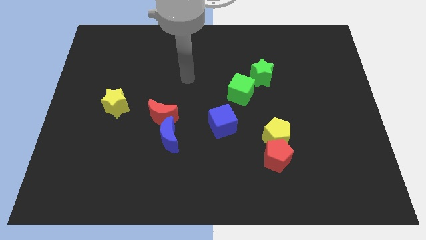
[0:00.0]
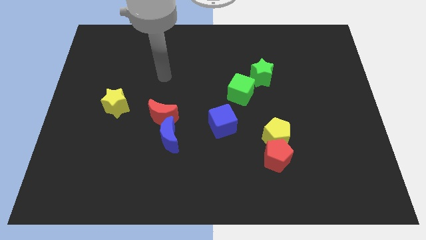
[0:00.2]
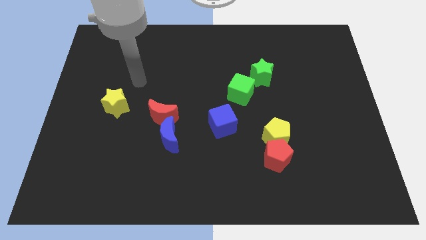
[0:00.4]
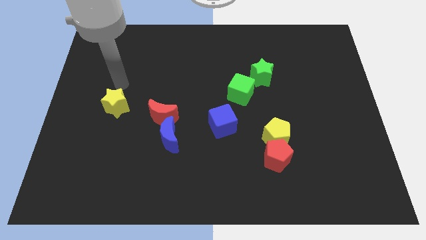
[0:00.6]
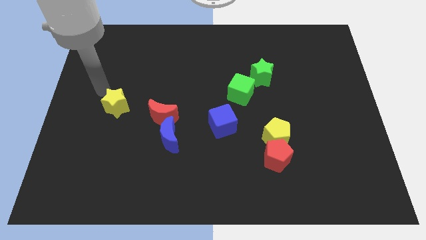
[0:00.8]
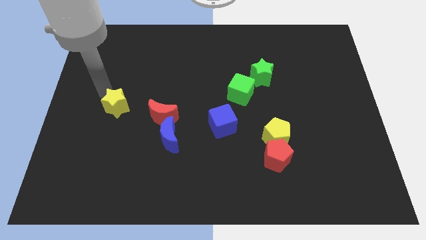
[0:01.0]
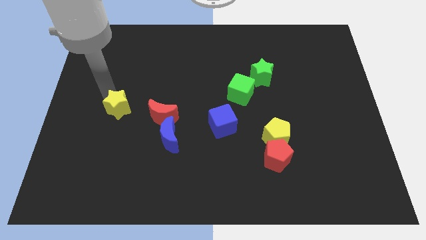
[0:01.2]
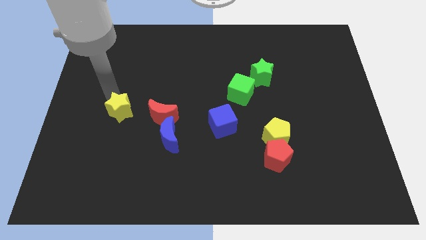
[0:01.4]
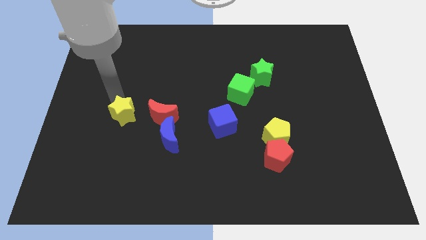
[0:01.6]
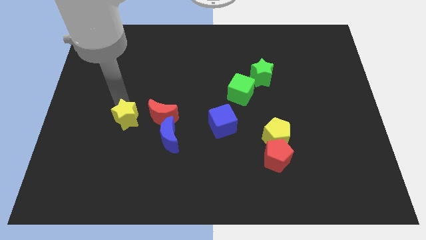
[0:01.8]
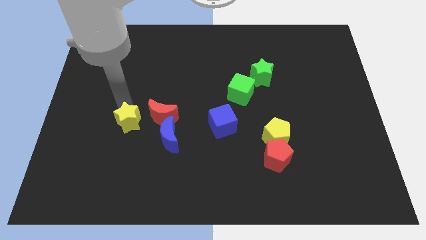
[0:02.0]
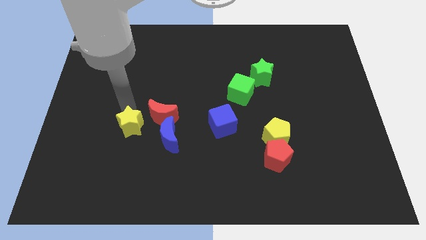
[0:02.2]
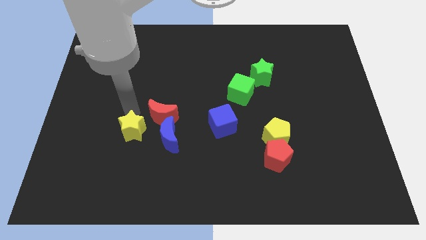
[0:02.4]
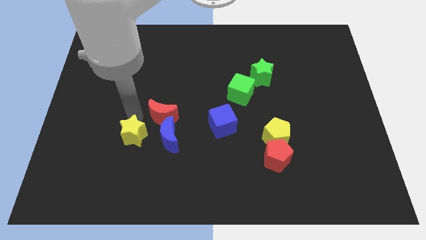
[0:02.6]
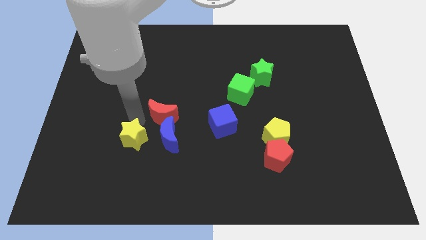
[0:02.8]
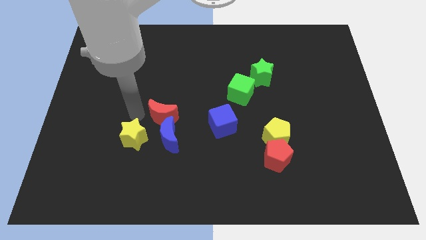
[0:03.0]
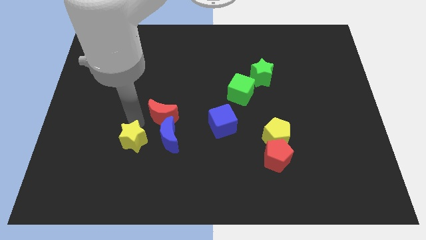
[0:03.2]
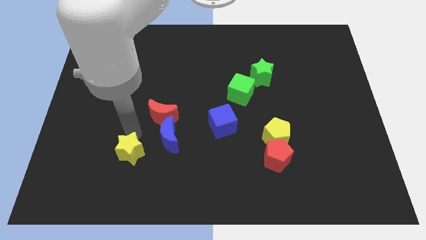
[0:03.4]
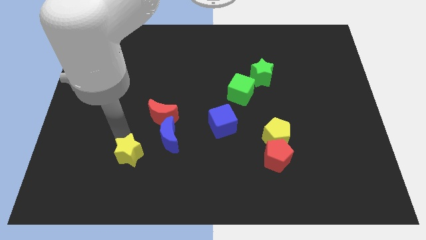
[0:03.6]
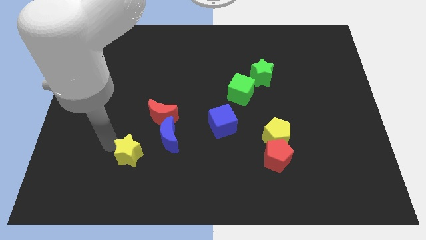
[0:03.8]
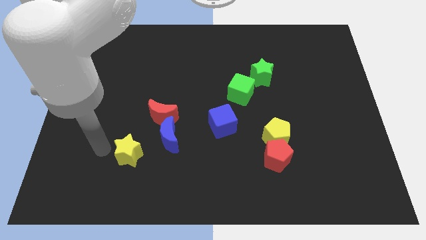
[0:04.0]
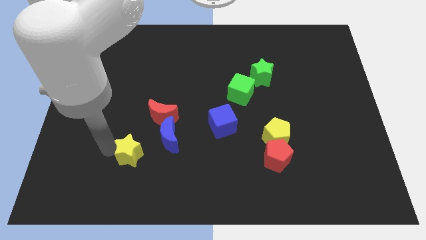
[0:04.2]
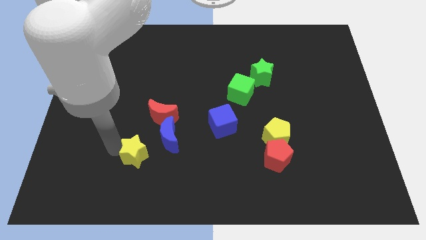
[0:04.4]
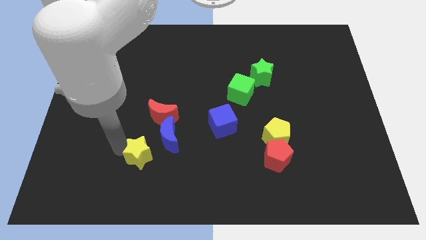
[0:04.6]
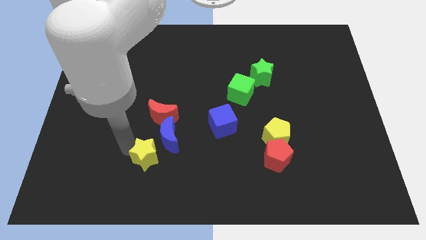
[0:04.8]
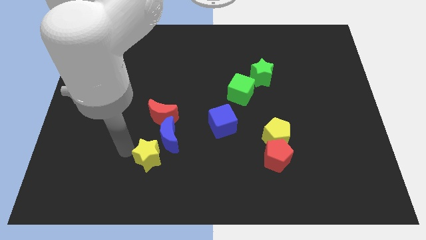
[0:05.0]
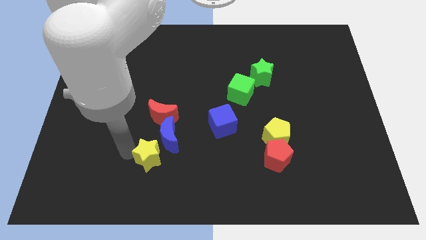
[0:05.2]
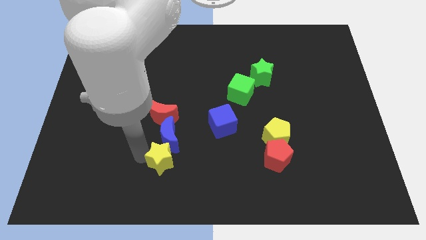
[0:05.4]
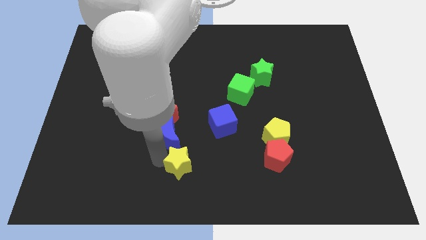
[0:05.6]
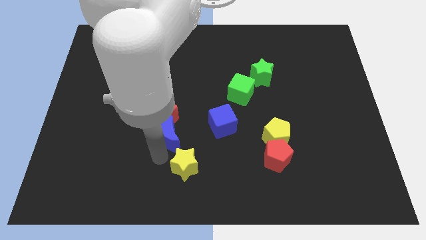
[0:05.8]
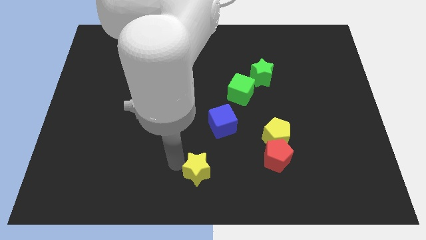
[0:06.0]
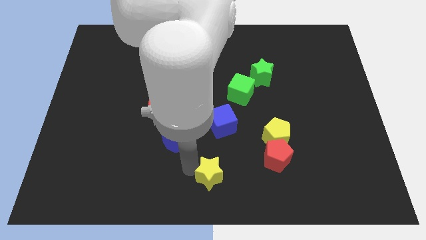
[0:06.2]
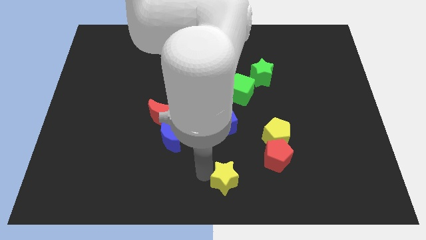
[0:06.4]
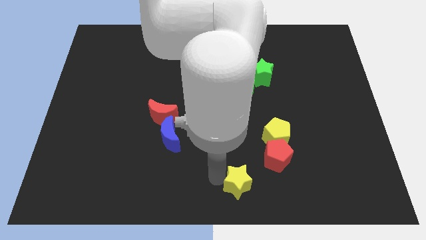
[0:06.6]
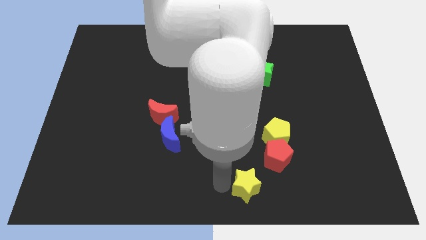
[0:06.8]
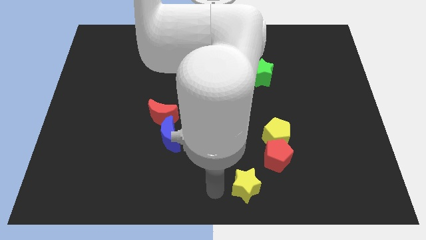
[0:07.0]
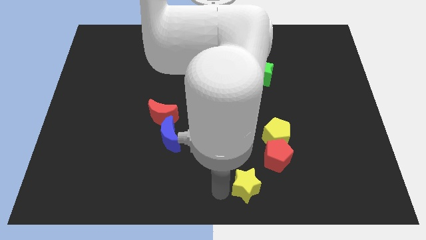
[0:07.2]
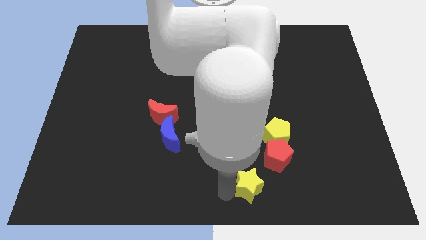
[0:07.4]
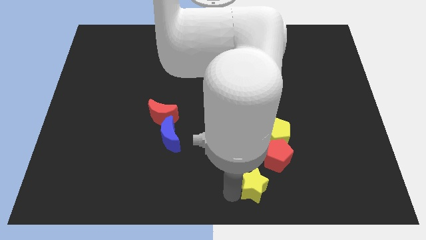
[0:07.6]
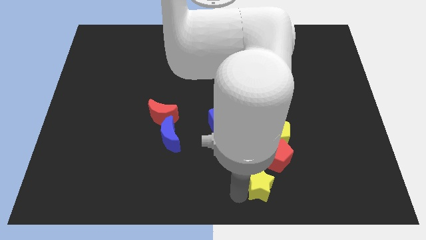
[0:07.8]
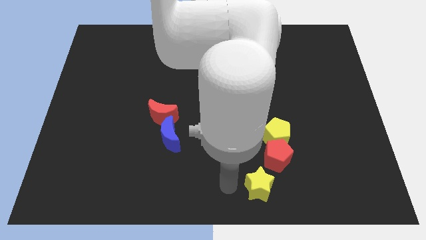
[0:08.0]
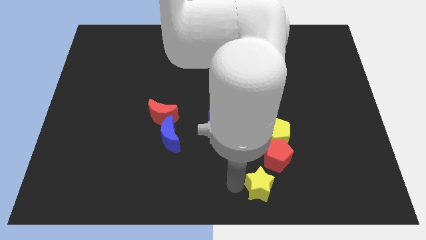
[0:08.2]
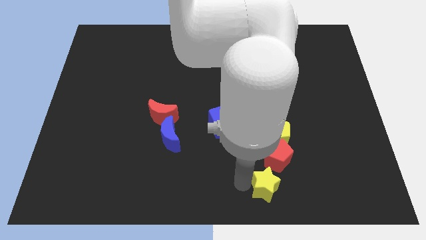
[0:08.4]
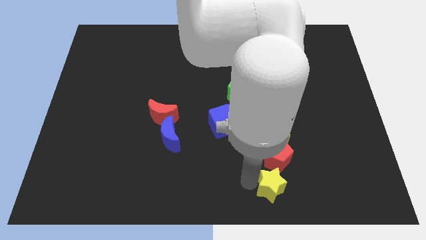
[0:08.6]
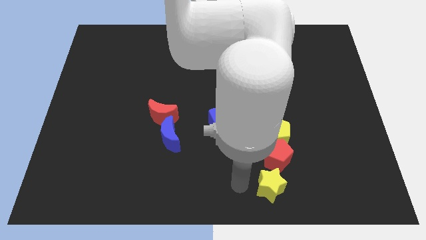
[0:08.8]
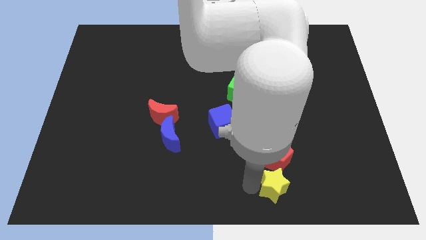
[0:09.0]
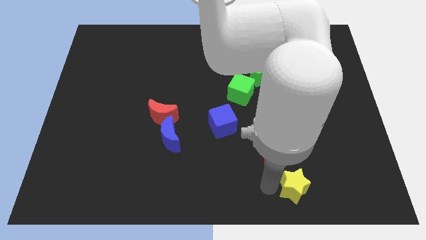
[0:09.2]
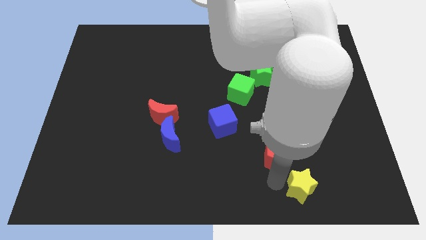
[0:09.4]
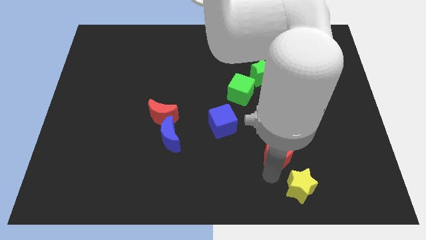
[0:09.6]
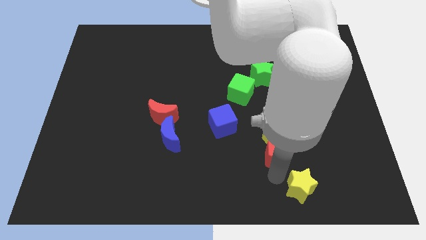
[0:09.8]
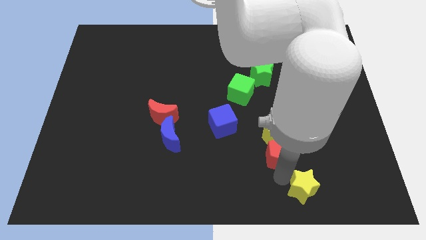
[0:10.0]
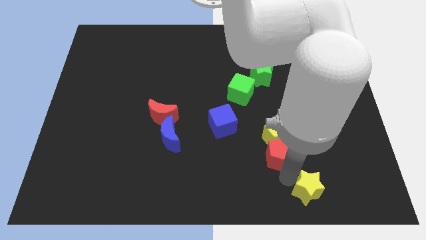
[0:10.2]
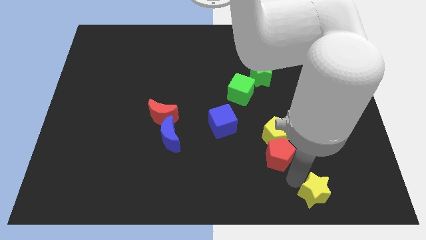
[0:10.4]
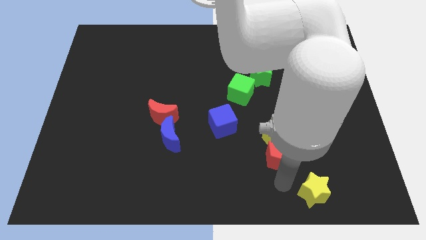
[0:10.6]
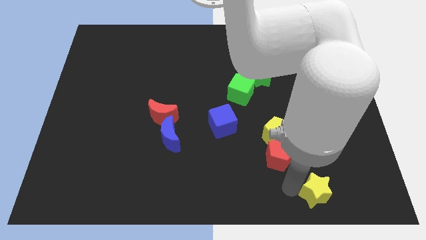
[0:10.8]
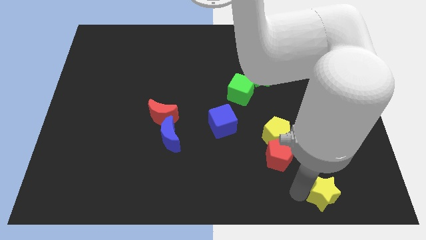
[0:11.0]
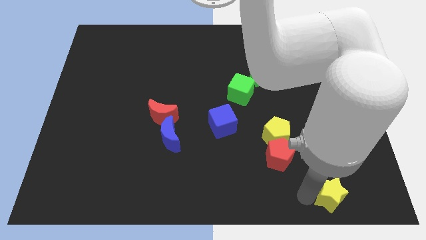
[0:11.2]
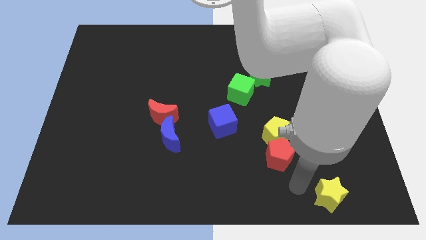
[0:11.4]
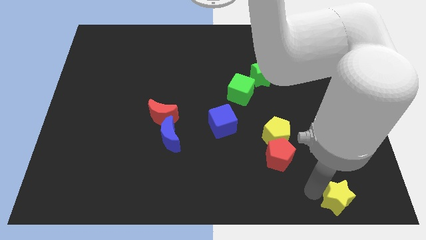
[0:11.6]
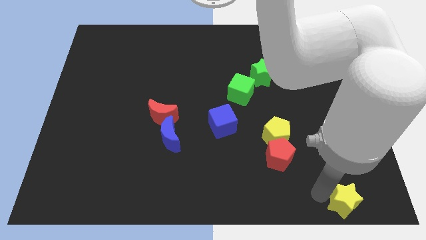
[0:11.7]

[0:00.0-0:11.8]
put the yellow star to the bottom right of the board
